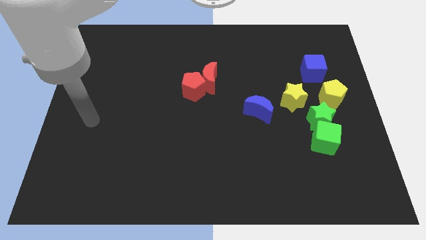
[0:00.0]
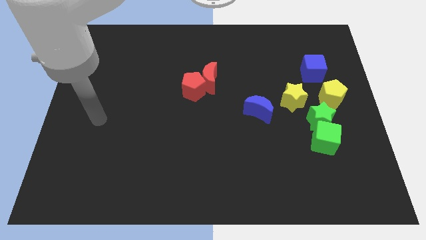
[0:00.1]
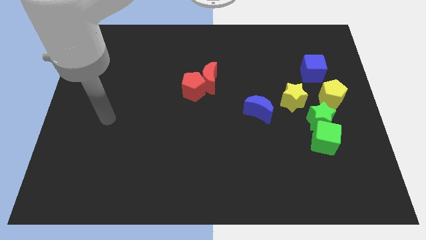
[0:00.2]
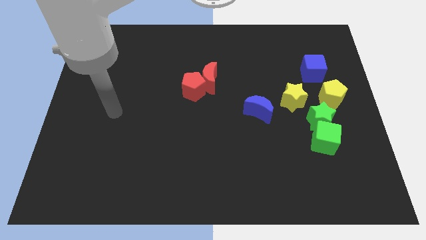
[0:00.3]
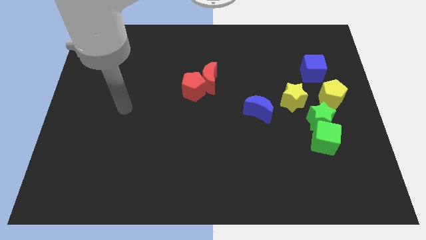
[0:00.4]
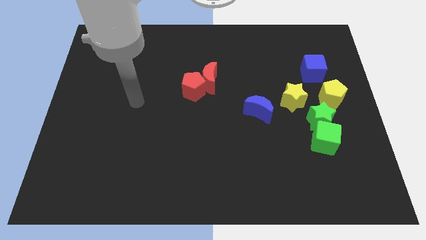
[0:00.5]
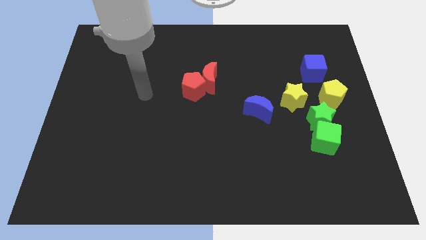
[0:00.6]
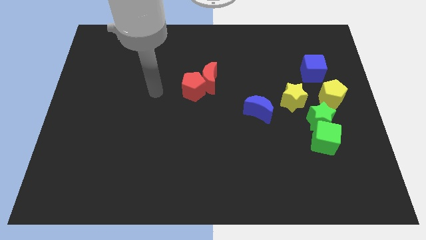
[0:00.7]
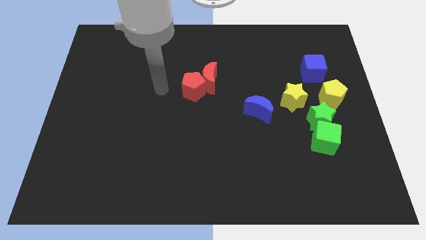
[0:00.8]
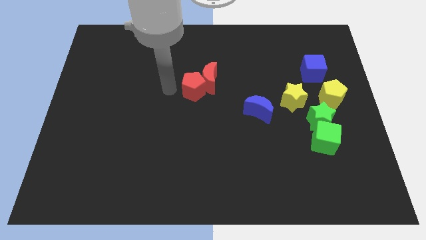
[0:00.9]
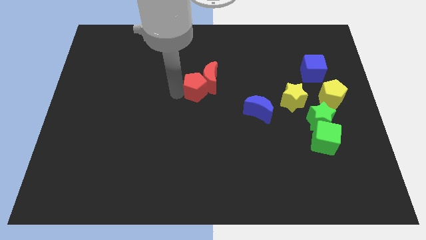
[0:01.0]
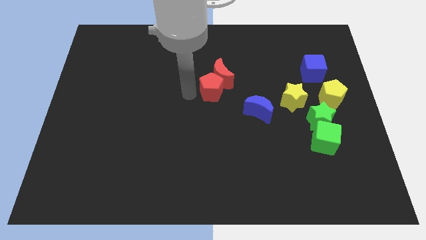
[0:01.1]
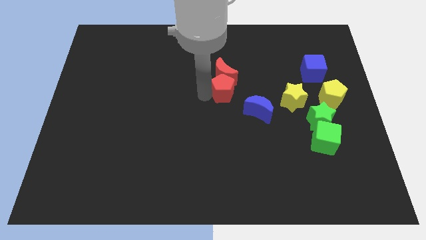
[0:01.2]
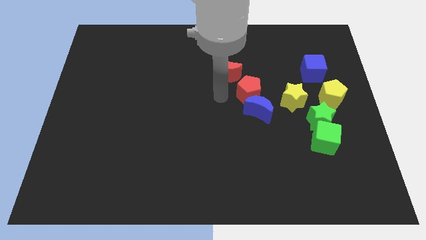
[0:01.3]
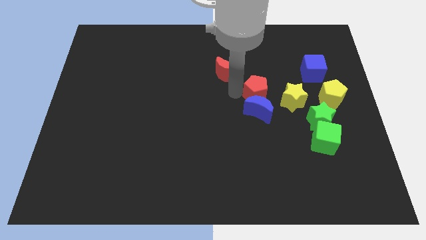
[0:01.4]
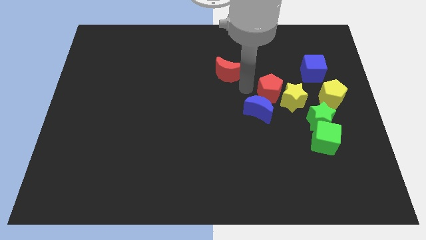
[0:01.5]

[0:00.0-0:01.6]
pull the red moon apart from the red pentagon

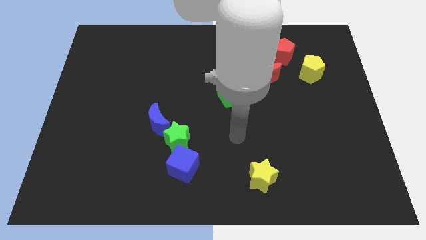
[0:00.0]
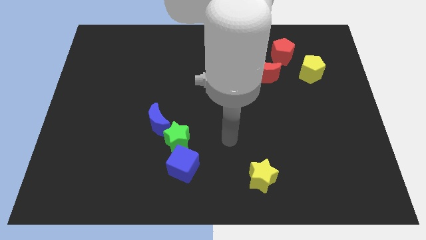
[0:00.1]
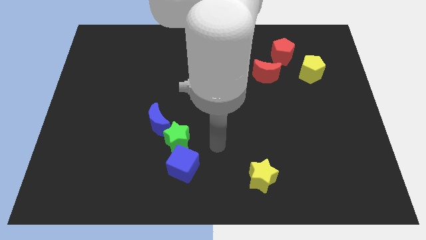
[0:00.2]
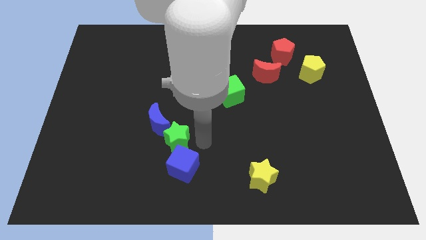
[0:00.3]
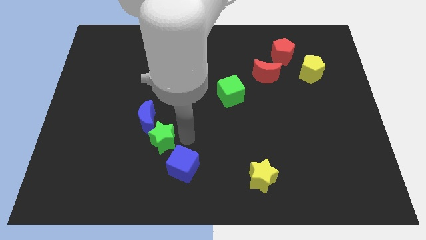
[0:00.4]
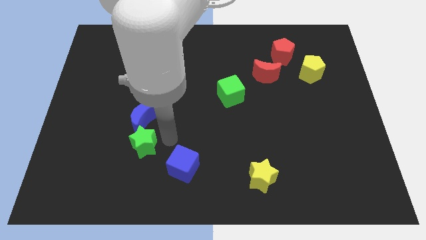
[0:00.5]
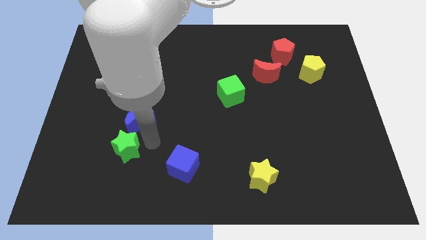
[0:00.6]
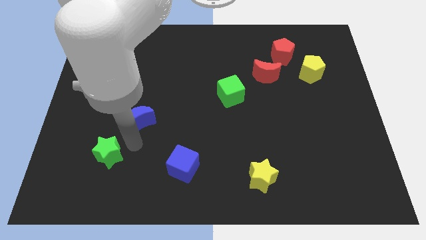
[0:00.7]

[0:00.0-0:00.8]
separate the blue moon from the green star

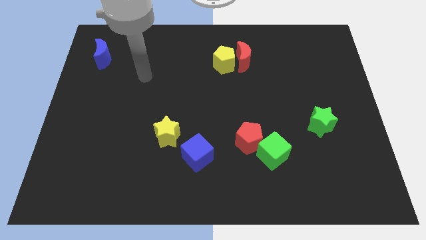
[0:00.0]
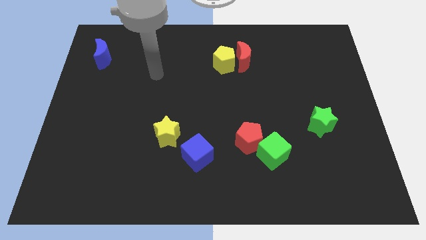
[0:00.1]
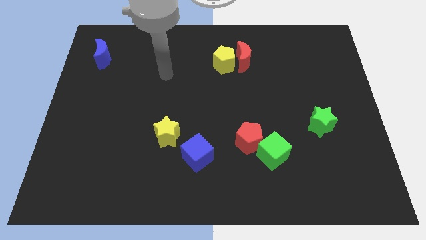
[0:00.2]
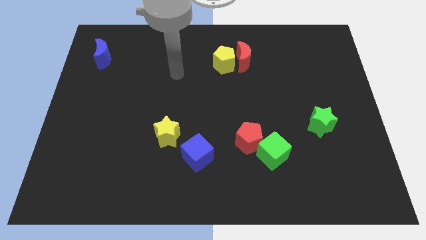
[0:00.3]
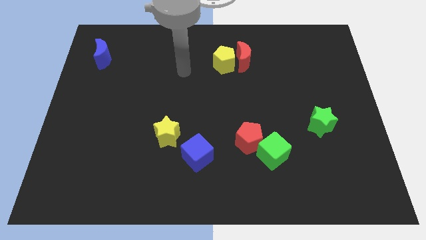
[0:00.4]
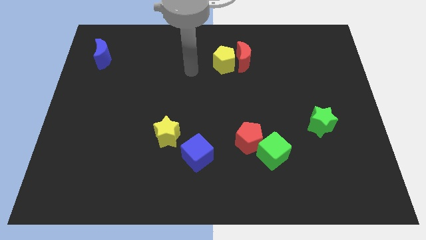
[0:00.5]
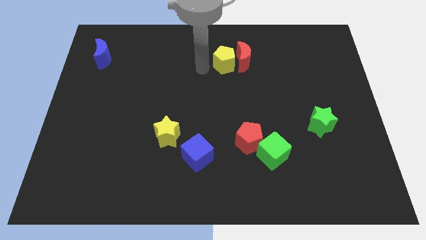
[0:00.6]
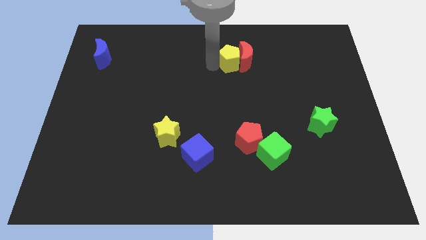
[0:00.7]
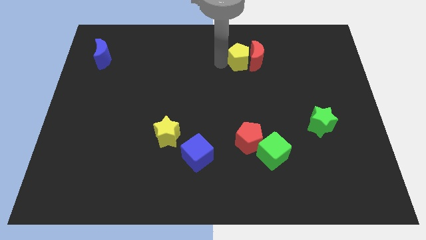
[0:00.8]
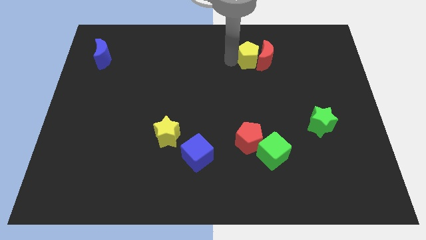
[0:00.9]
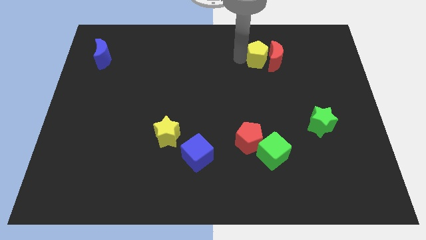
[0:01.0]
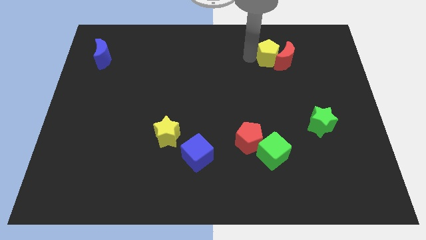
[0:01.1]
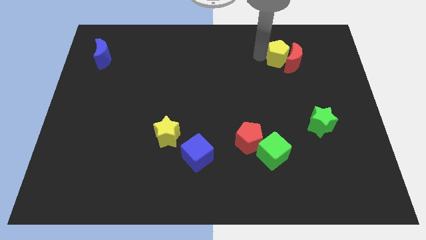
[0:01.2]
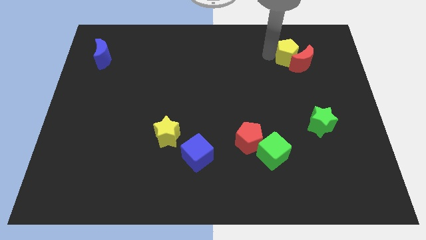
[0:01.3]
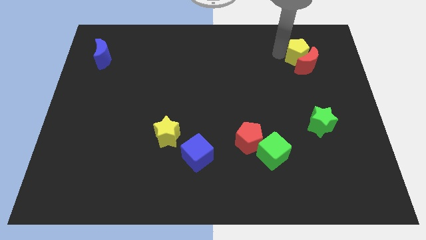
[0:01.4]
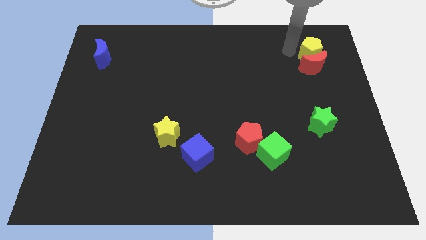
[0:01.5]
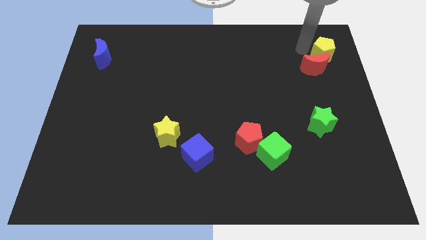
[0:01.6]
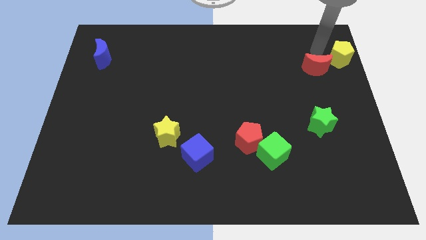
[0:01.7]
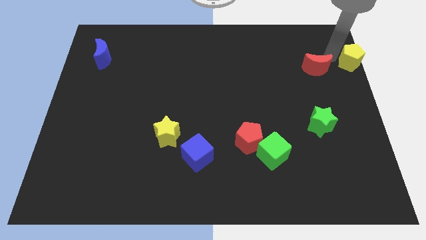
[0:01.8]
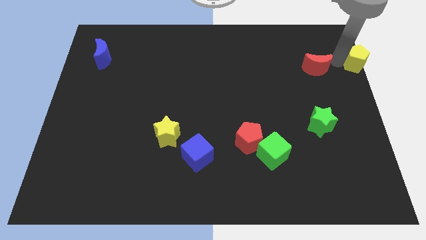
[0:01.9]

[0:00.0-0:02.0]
separate the red moon from the yellow pentagon

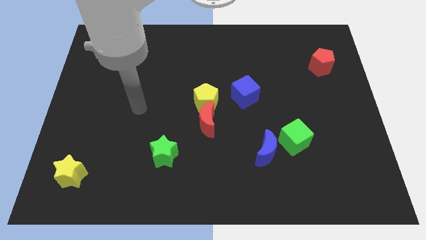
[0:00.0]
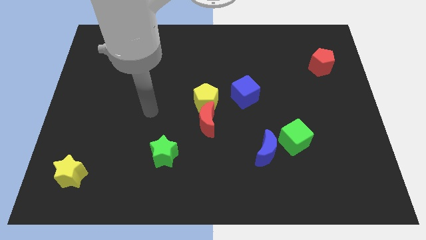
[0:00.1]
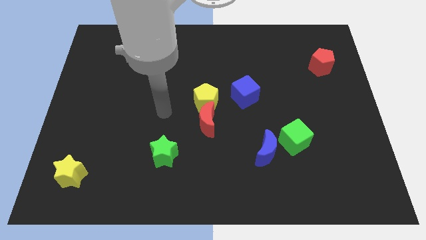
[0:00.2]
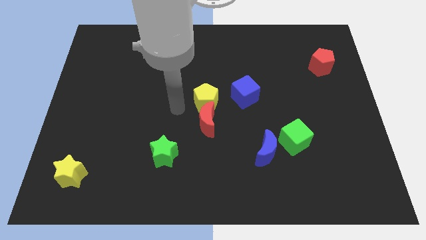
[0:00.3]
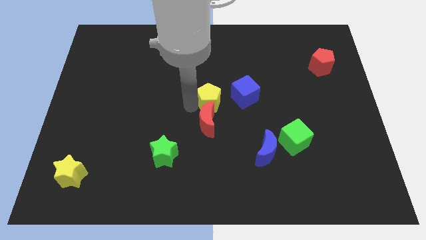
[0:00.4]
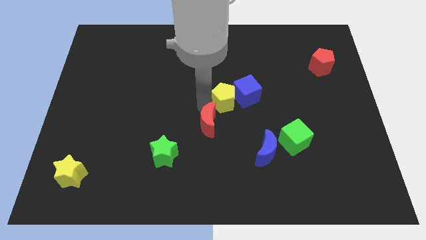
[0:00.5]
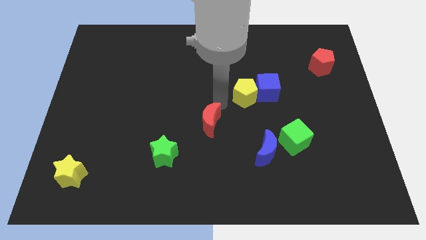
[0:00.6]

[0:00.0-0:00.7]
pull the red moon apart from the yellow pentagon

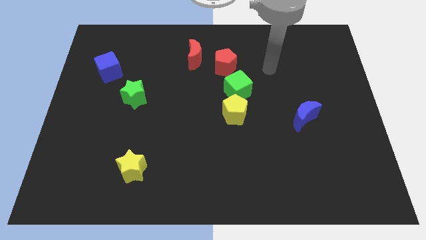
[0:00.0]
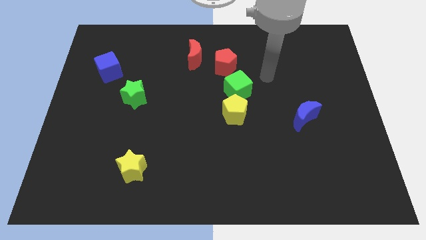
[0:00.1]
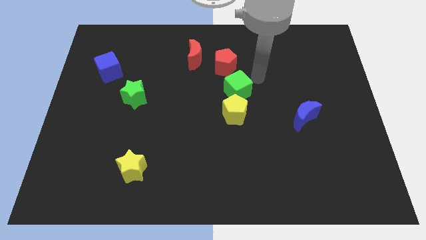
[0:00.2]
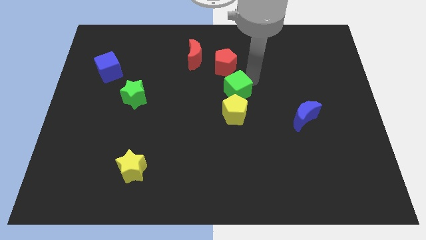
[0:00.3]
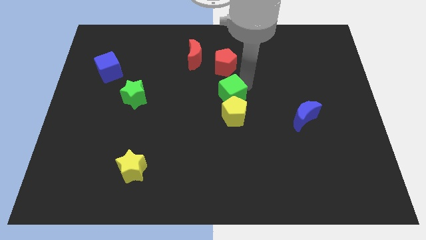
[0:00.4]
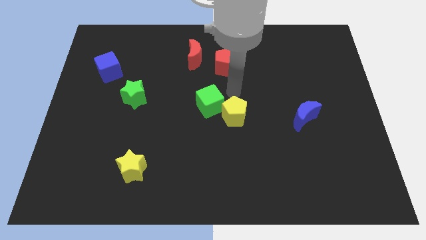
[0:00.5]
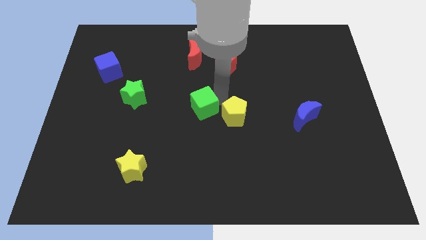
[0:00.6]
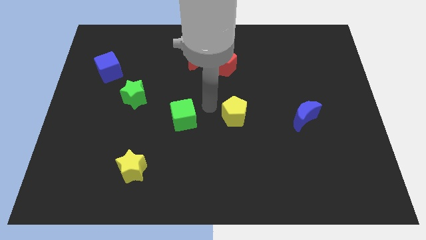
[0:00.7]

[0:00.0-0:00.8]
pull the yellow pentagon apart from the green cube

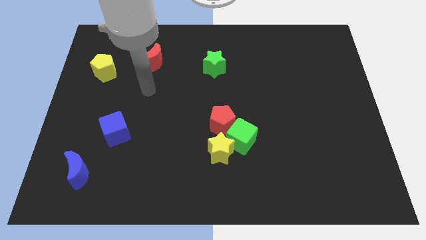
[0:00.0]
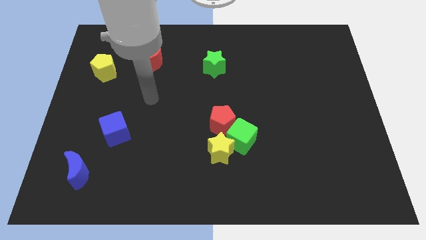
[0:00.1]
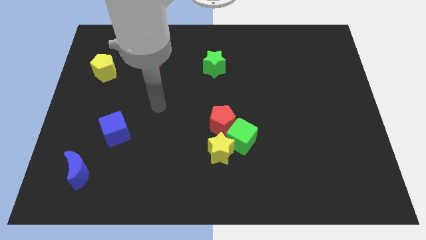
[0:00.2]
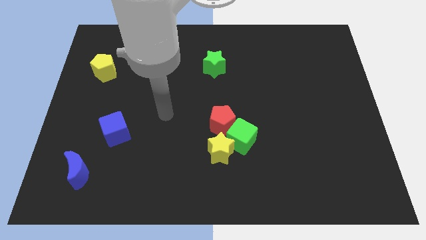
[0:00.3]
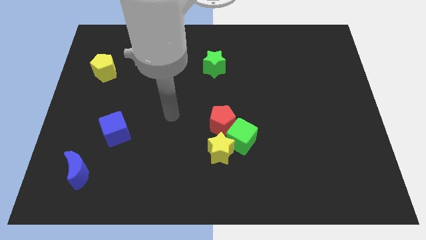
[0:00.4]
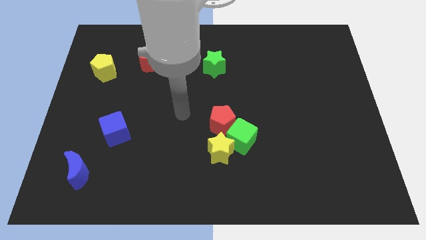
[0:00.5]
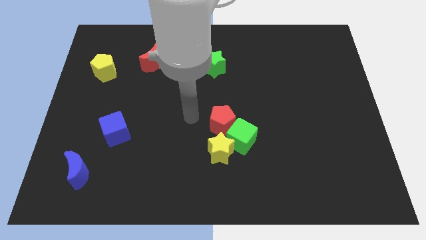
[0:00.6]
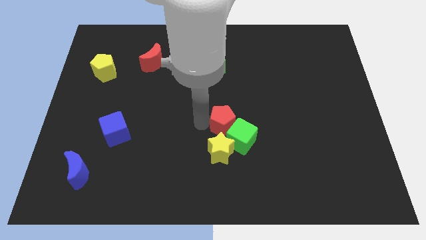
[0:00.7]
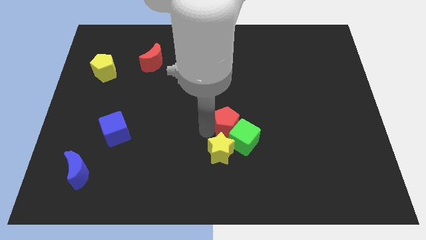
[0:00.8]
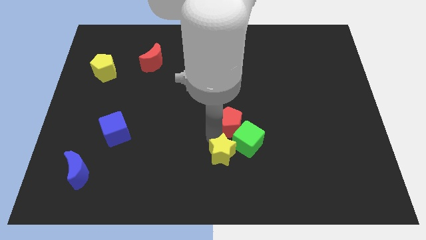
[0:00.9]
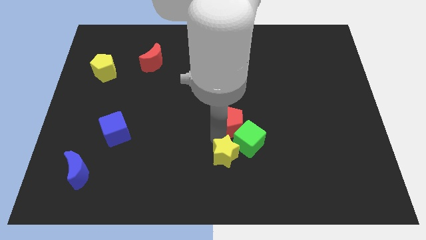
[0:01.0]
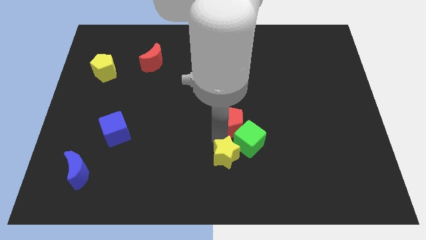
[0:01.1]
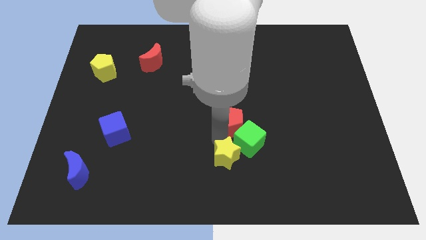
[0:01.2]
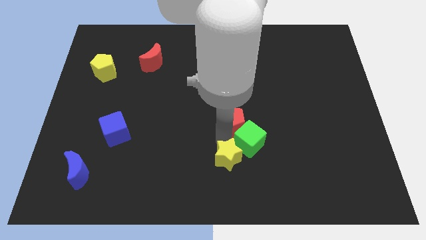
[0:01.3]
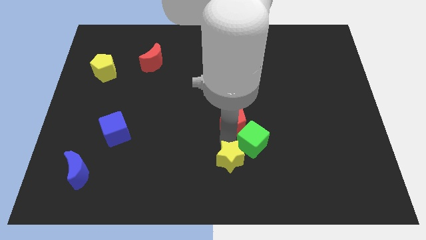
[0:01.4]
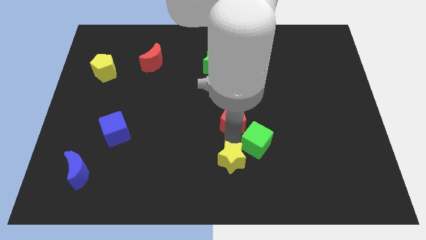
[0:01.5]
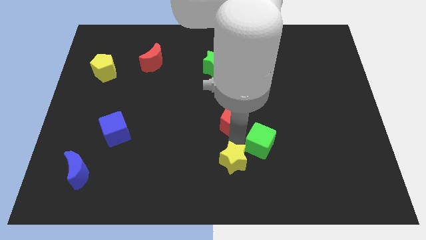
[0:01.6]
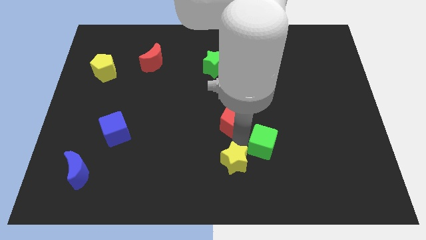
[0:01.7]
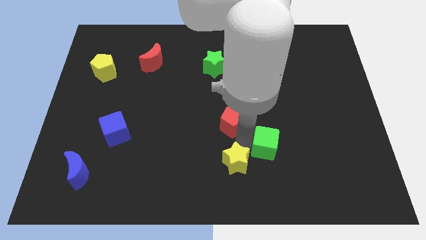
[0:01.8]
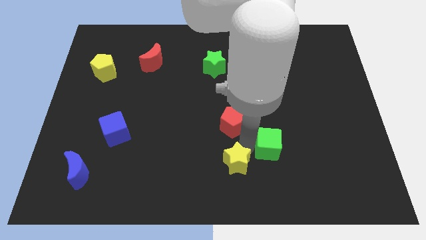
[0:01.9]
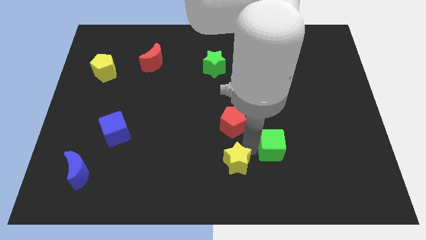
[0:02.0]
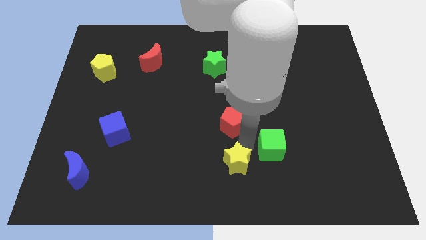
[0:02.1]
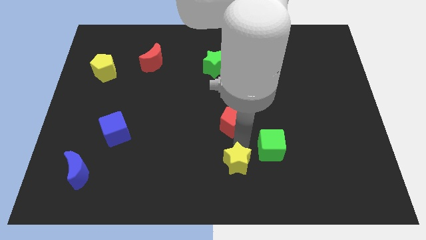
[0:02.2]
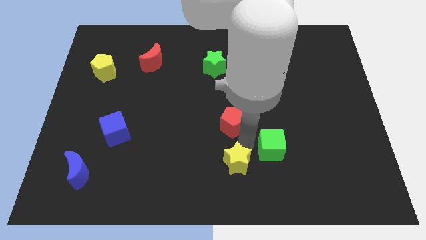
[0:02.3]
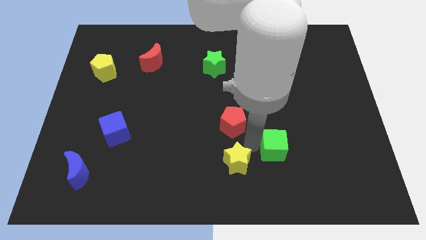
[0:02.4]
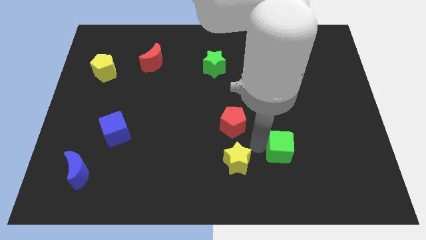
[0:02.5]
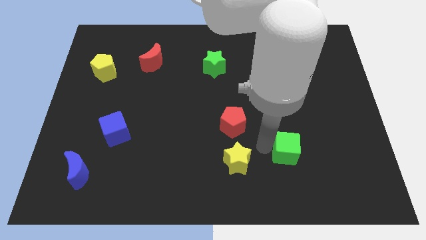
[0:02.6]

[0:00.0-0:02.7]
separate the green cube from the yellow star and red pentagon

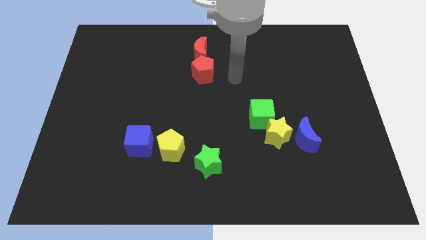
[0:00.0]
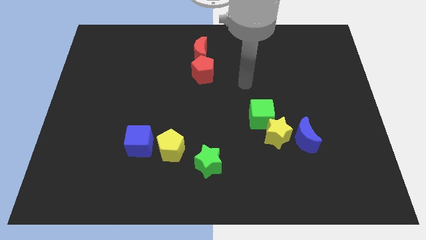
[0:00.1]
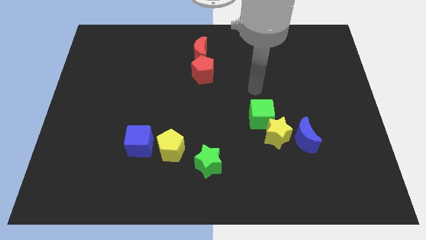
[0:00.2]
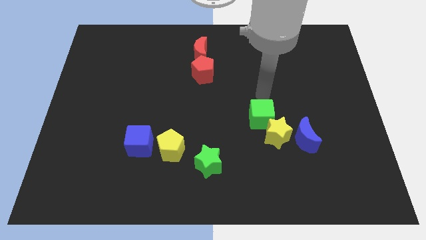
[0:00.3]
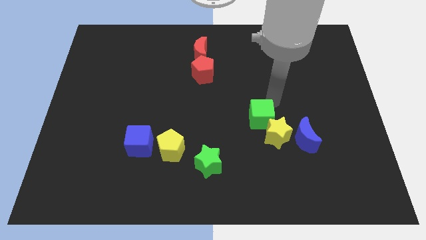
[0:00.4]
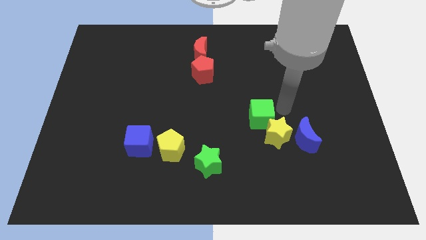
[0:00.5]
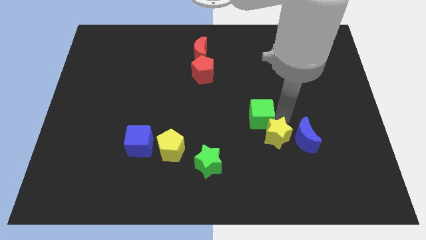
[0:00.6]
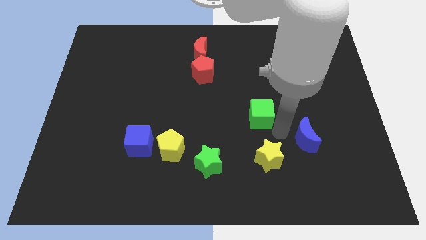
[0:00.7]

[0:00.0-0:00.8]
move the green cube away from the yellow star
